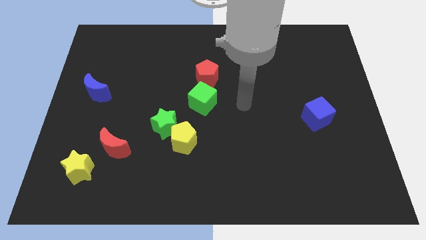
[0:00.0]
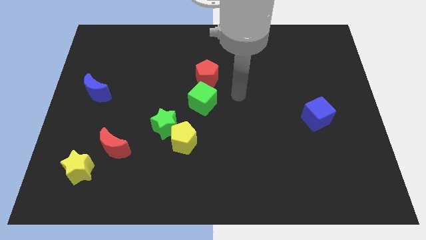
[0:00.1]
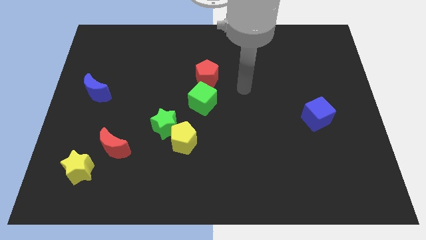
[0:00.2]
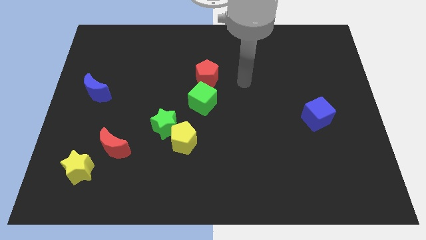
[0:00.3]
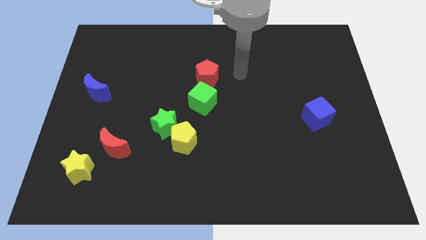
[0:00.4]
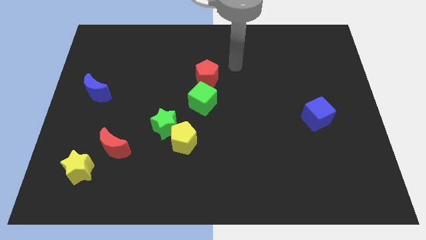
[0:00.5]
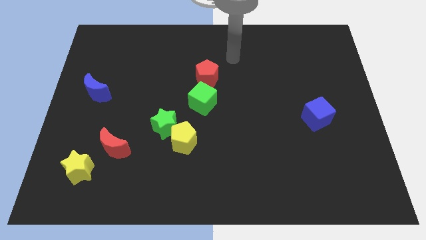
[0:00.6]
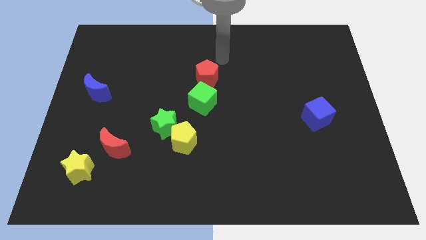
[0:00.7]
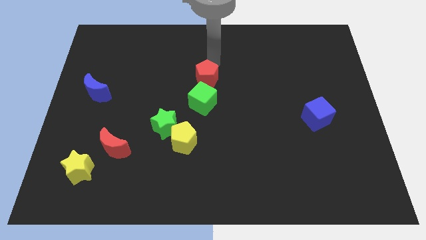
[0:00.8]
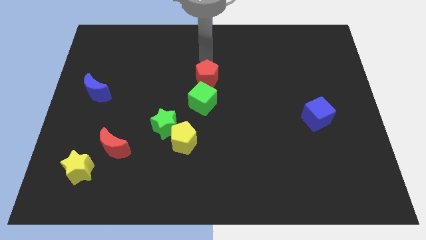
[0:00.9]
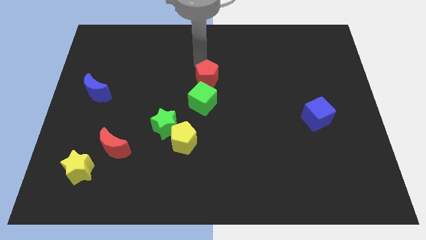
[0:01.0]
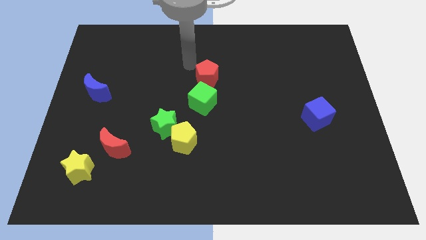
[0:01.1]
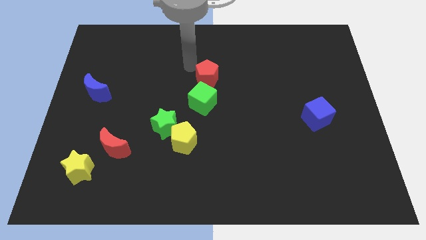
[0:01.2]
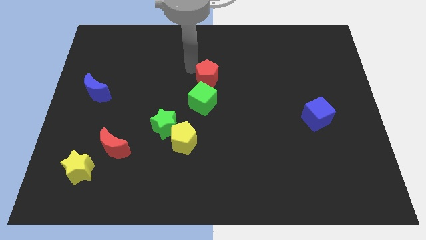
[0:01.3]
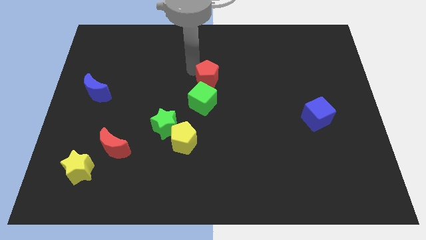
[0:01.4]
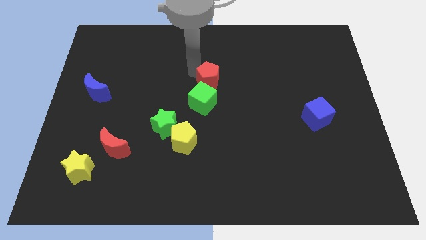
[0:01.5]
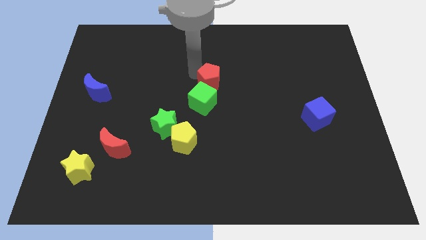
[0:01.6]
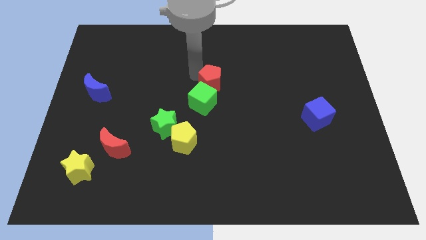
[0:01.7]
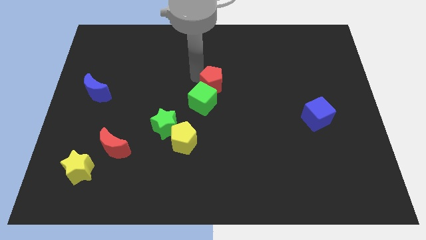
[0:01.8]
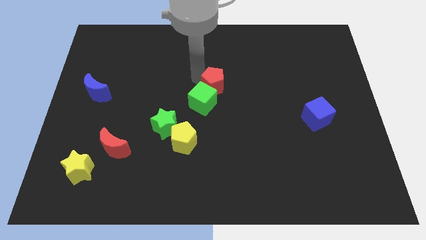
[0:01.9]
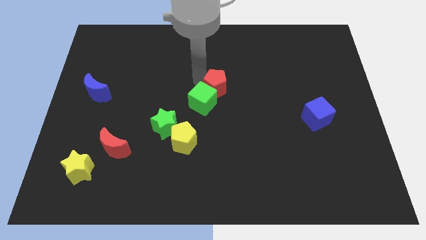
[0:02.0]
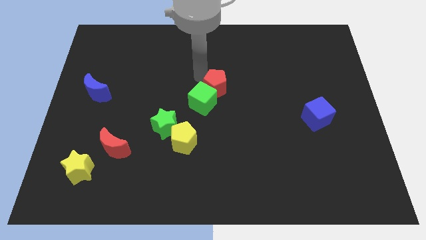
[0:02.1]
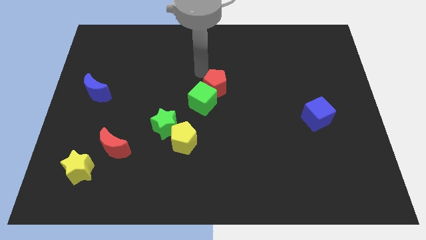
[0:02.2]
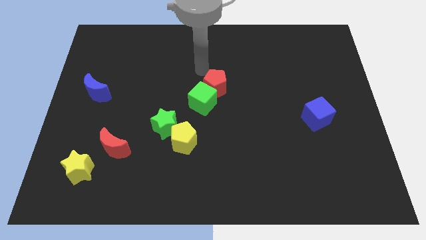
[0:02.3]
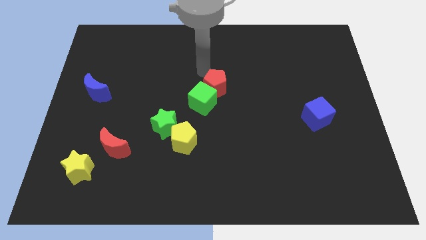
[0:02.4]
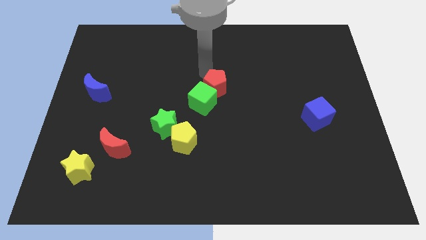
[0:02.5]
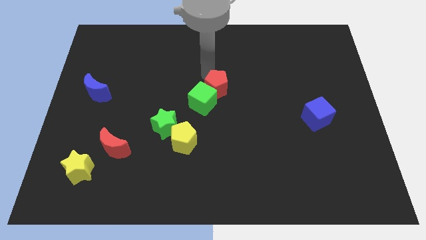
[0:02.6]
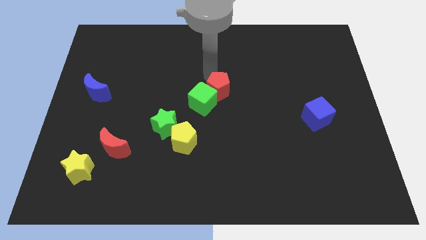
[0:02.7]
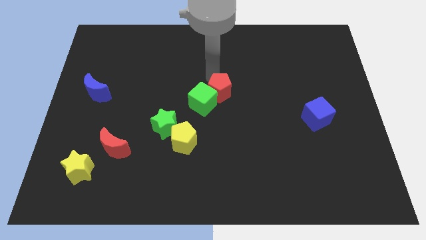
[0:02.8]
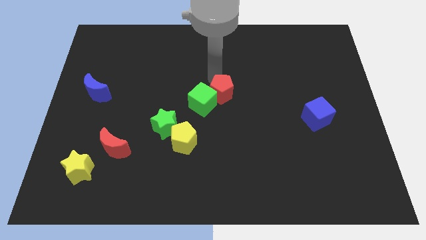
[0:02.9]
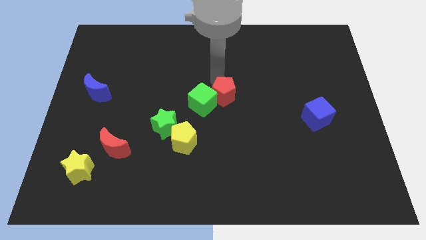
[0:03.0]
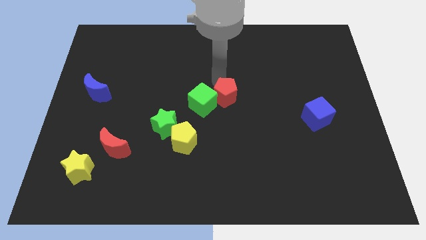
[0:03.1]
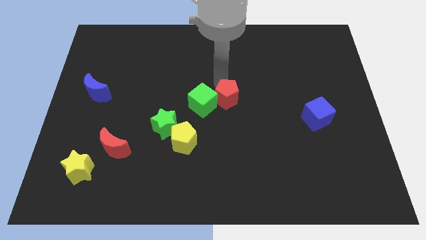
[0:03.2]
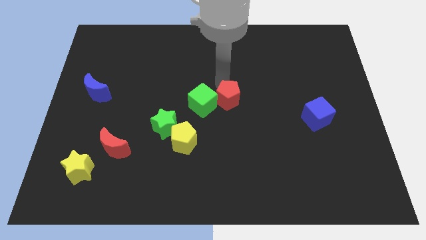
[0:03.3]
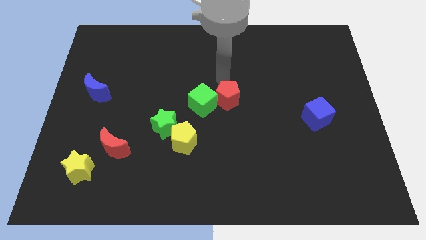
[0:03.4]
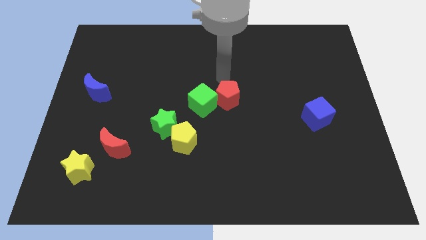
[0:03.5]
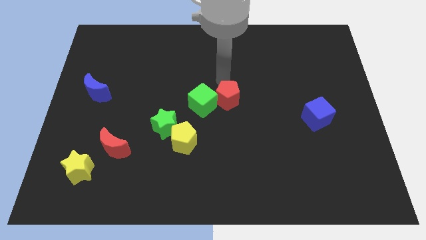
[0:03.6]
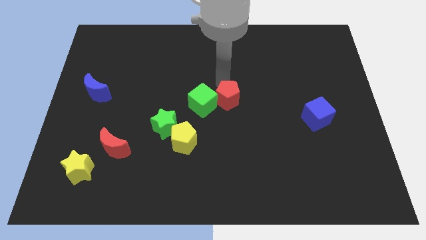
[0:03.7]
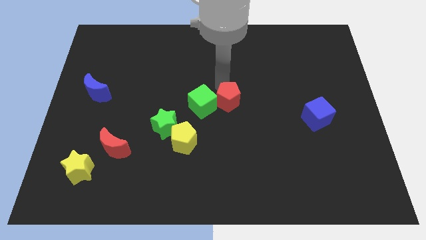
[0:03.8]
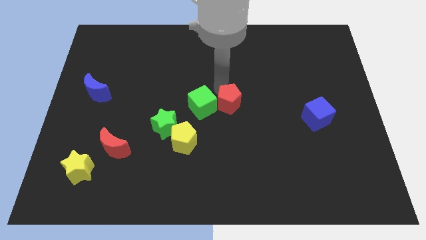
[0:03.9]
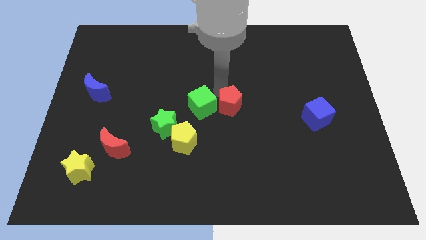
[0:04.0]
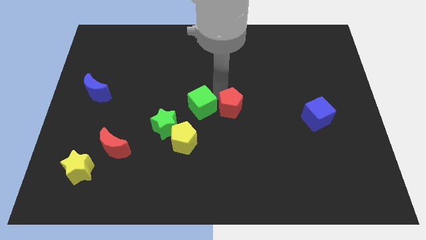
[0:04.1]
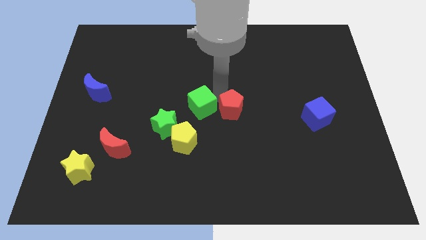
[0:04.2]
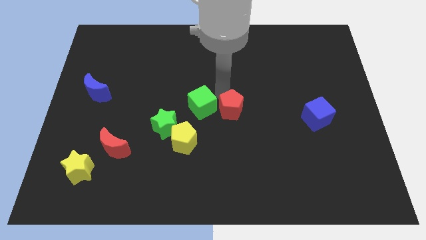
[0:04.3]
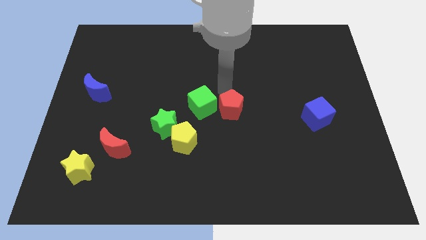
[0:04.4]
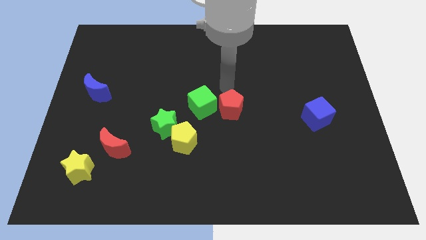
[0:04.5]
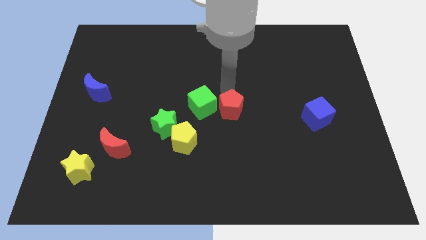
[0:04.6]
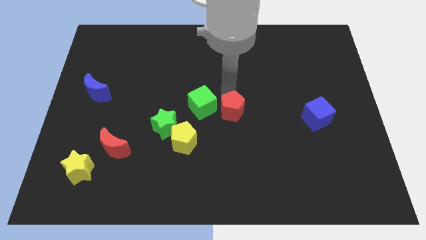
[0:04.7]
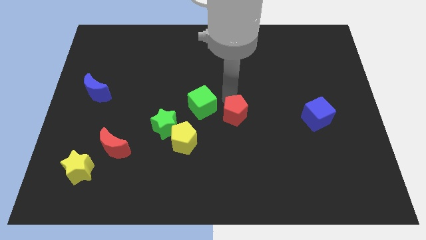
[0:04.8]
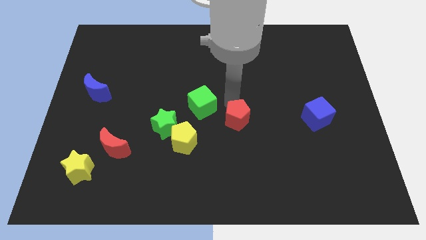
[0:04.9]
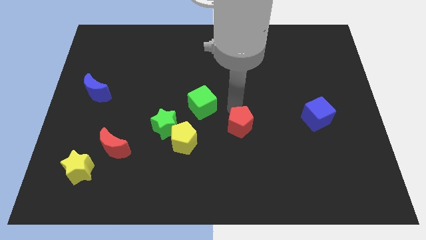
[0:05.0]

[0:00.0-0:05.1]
slide the red pentagon to the right of the yellow pentagon

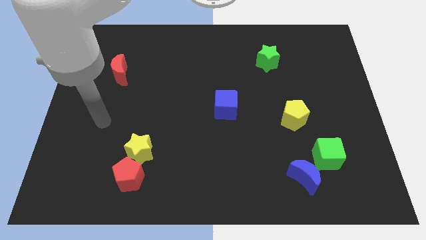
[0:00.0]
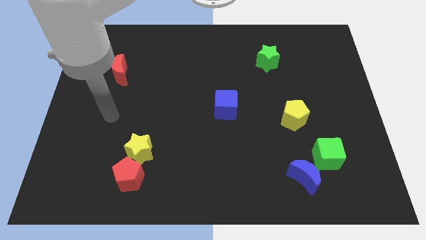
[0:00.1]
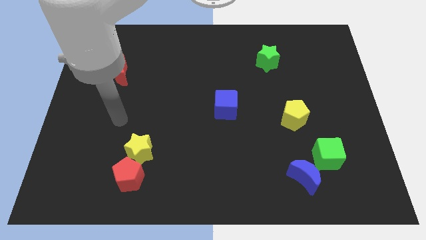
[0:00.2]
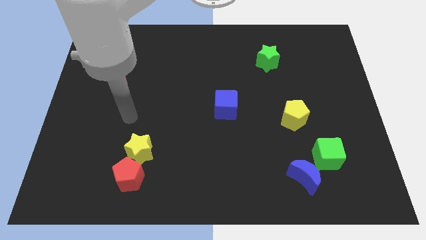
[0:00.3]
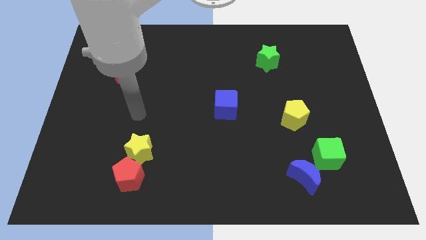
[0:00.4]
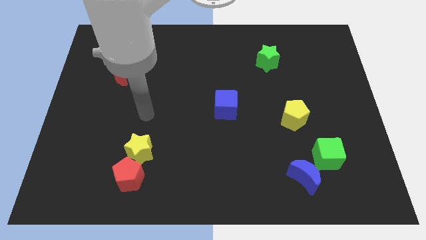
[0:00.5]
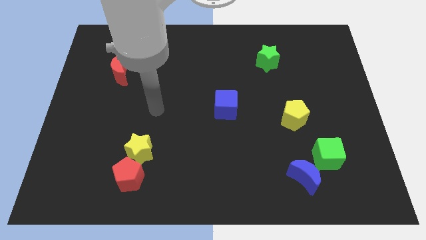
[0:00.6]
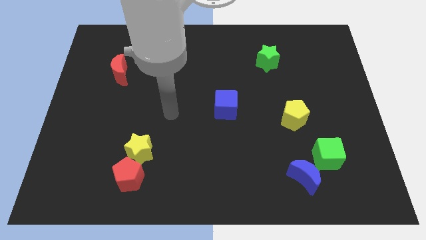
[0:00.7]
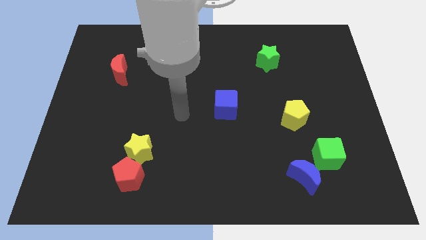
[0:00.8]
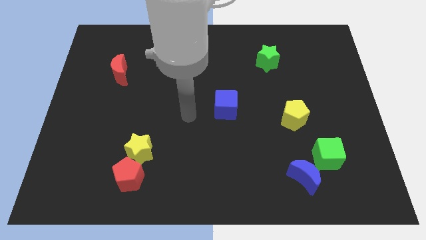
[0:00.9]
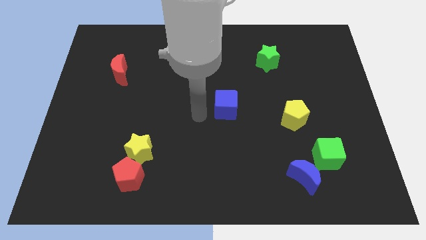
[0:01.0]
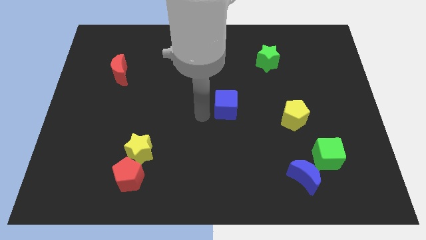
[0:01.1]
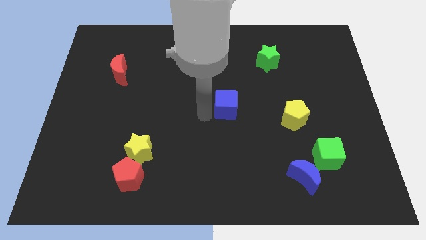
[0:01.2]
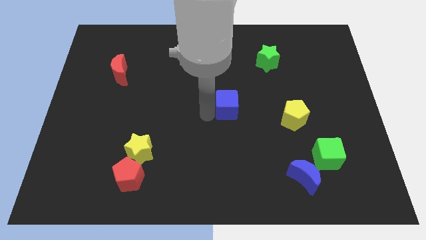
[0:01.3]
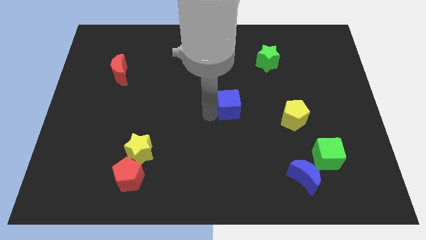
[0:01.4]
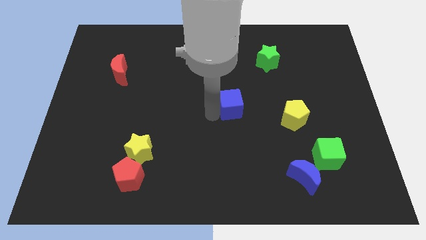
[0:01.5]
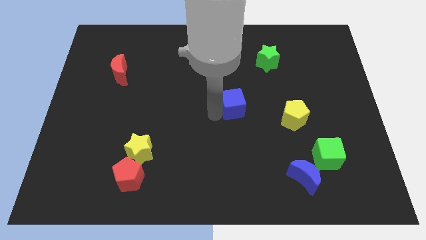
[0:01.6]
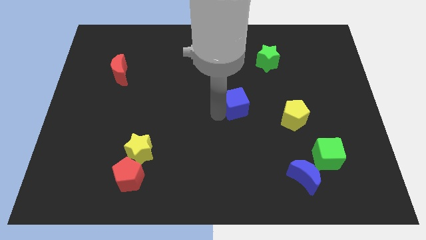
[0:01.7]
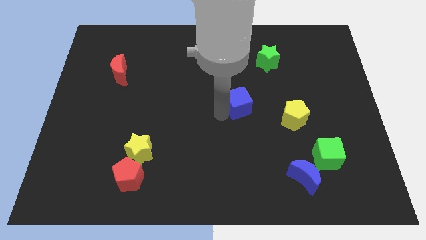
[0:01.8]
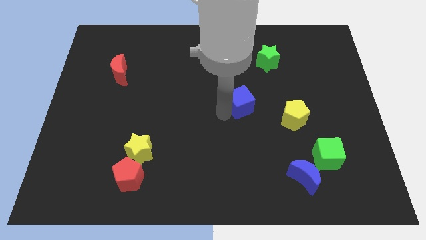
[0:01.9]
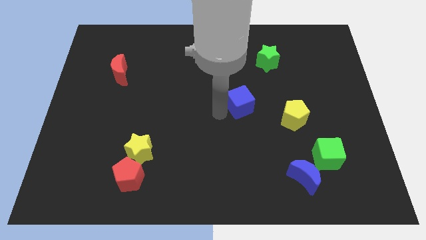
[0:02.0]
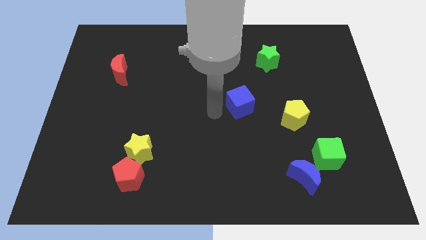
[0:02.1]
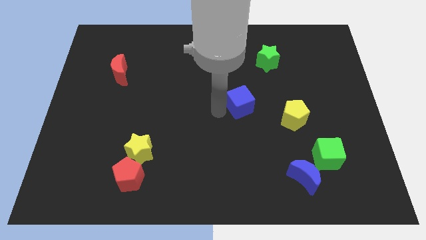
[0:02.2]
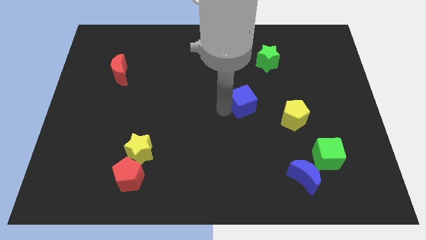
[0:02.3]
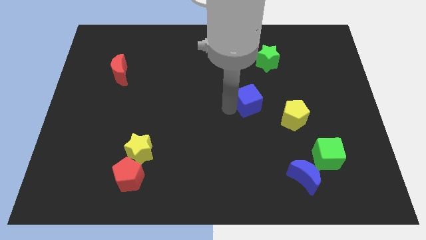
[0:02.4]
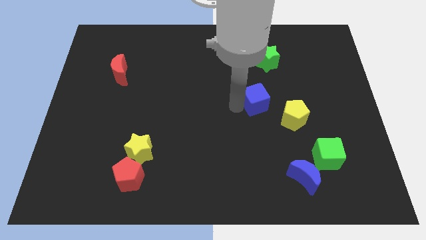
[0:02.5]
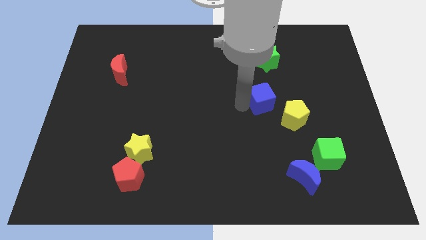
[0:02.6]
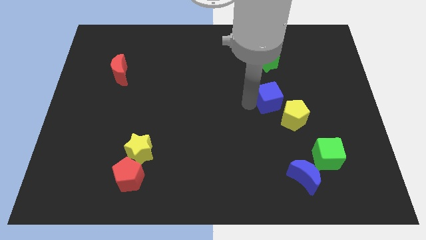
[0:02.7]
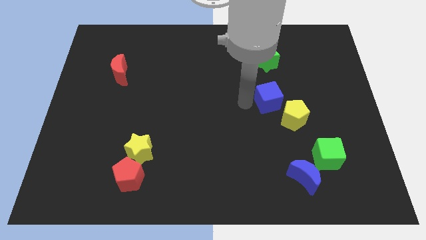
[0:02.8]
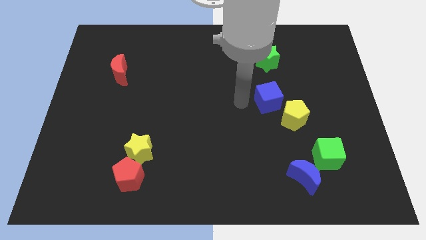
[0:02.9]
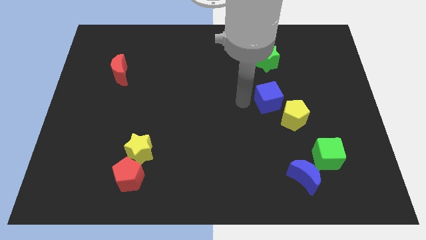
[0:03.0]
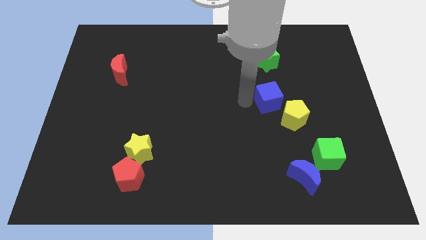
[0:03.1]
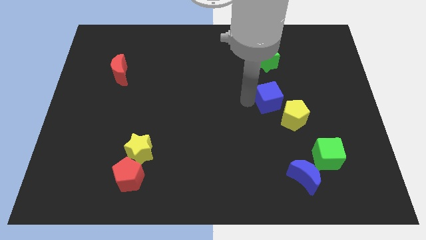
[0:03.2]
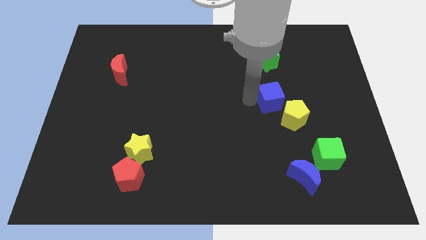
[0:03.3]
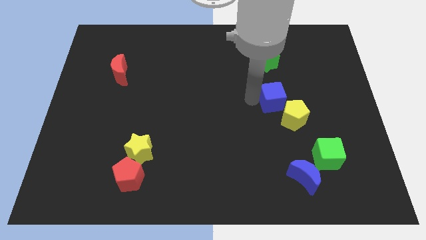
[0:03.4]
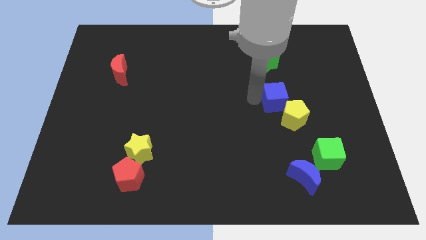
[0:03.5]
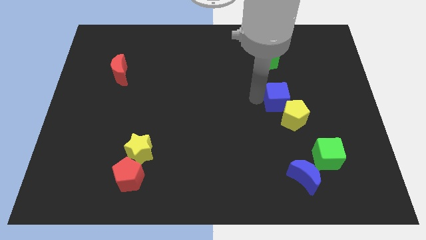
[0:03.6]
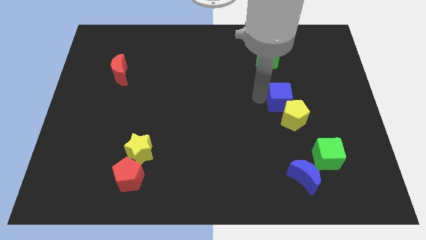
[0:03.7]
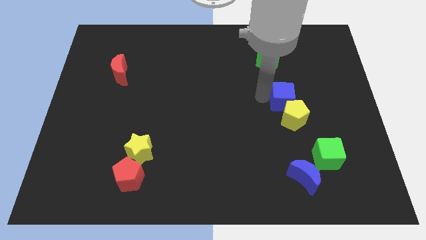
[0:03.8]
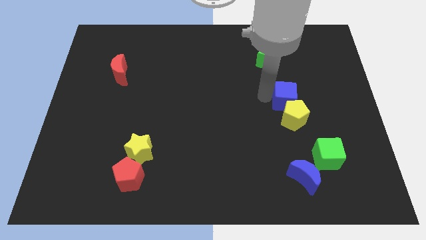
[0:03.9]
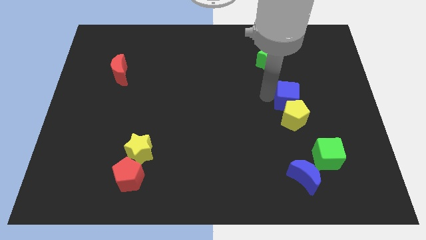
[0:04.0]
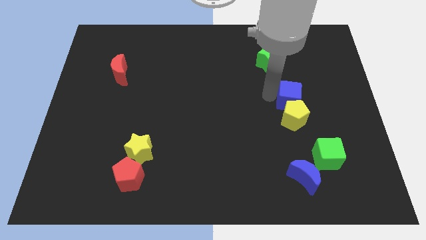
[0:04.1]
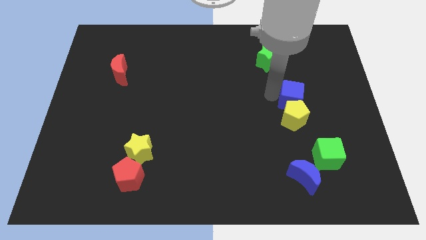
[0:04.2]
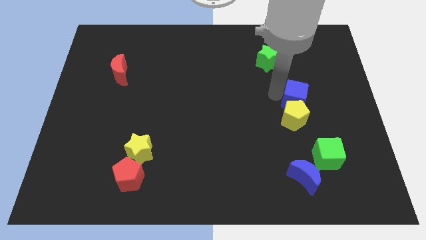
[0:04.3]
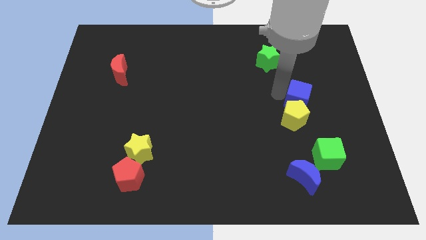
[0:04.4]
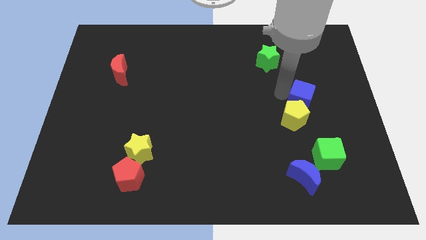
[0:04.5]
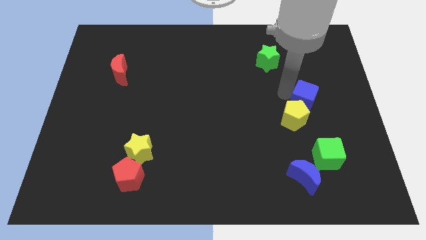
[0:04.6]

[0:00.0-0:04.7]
move the blue cube to the top side of the green cube
